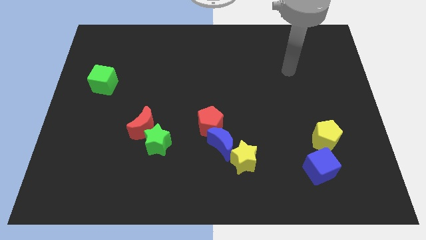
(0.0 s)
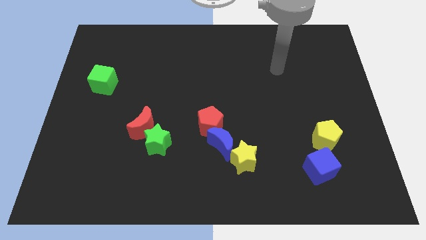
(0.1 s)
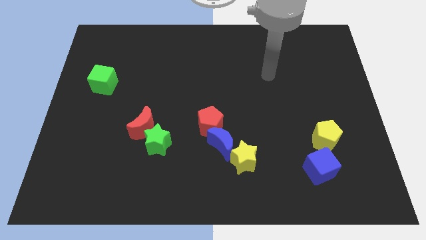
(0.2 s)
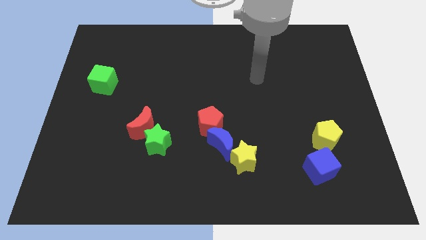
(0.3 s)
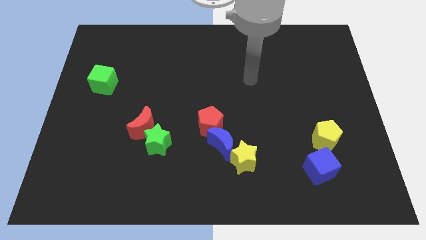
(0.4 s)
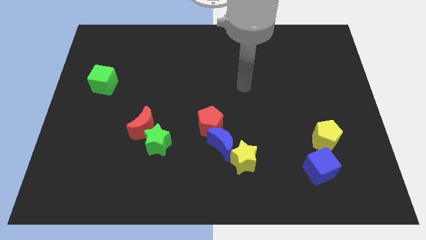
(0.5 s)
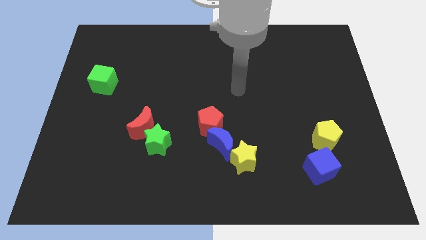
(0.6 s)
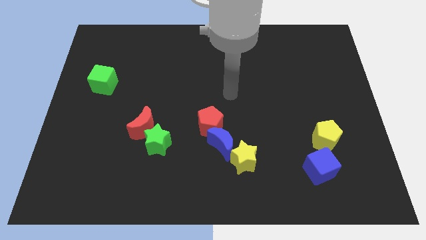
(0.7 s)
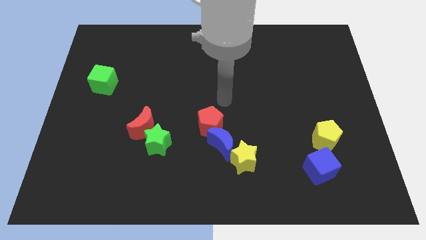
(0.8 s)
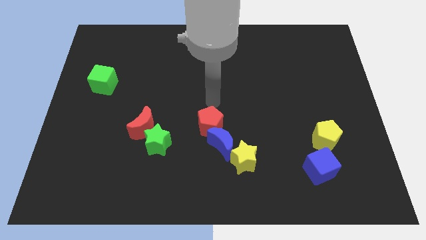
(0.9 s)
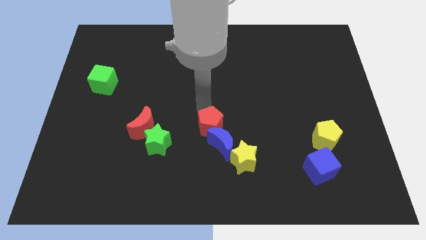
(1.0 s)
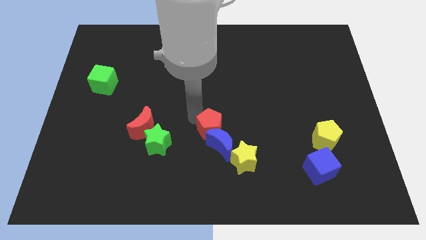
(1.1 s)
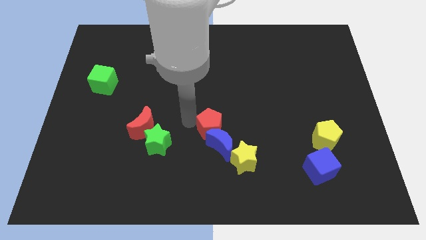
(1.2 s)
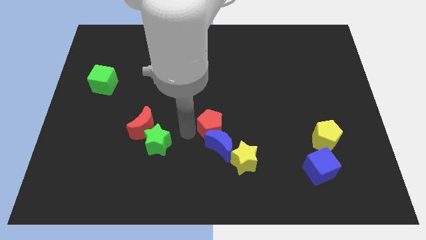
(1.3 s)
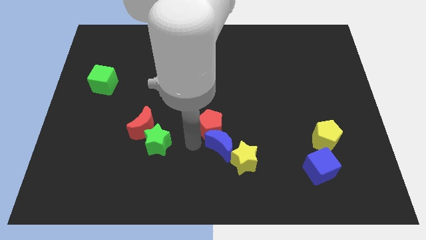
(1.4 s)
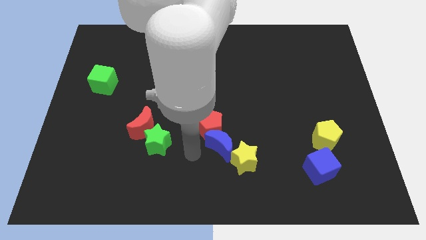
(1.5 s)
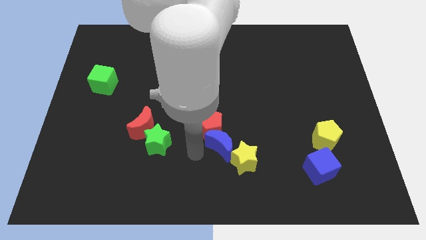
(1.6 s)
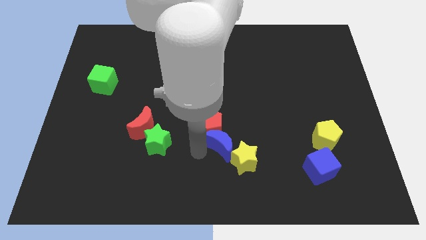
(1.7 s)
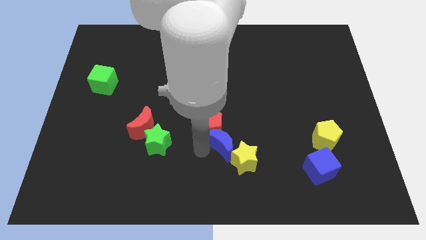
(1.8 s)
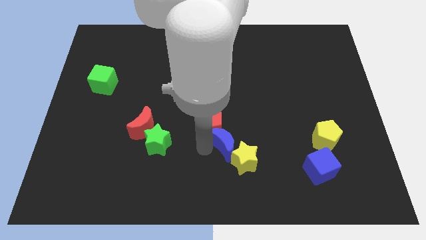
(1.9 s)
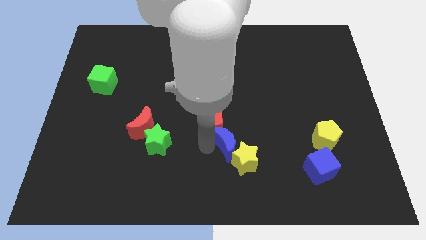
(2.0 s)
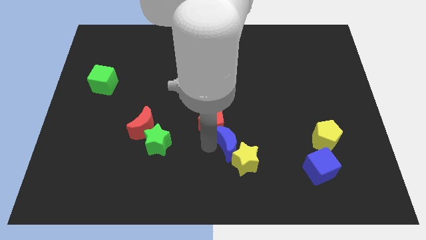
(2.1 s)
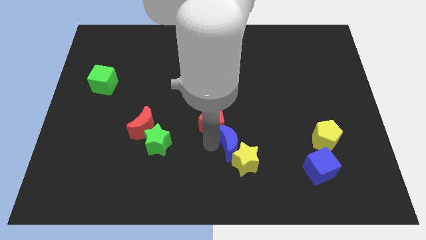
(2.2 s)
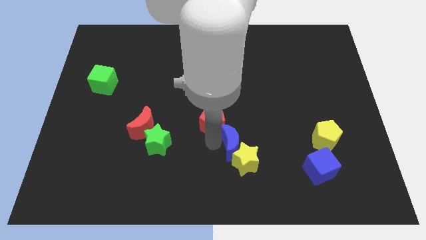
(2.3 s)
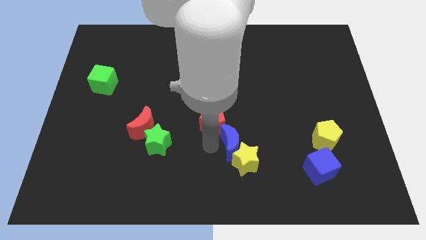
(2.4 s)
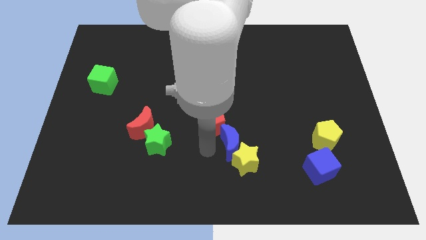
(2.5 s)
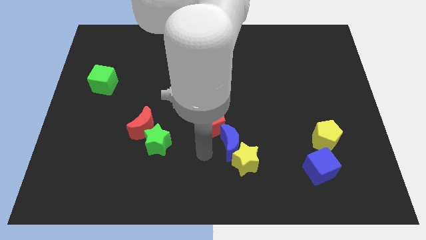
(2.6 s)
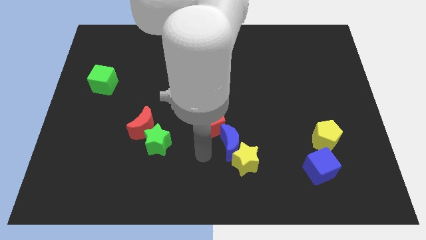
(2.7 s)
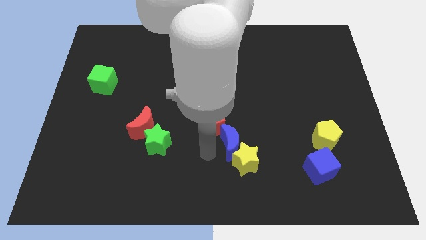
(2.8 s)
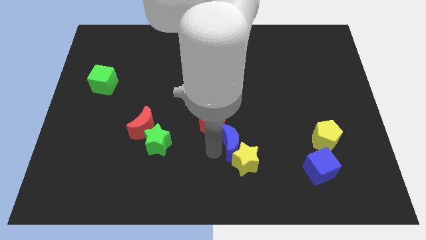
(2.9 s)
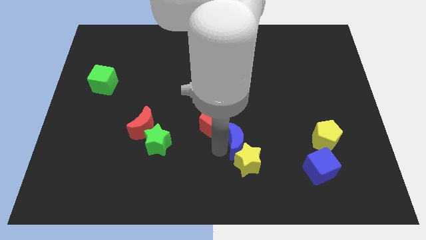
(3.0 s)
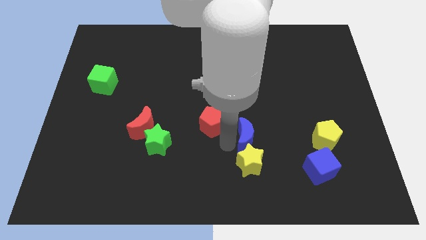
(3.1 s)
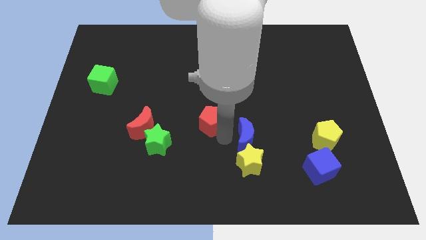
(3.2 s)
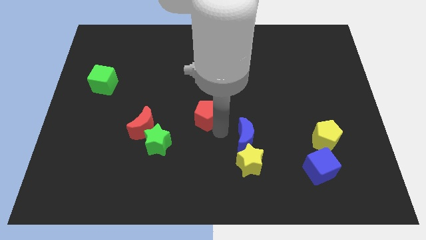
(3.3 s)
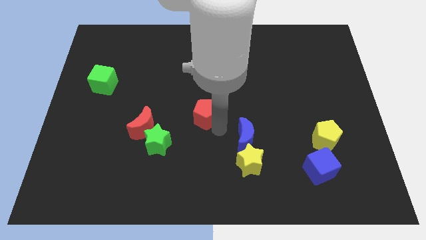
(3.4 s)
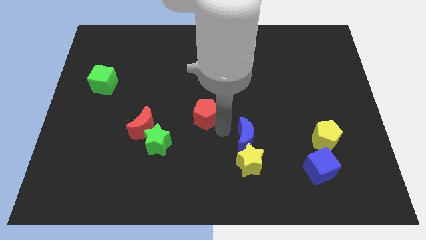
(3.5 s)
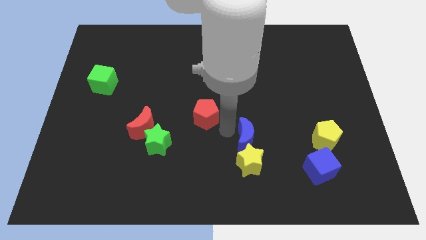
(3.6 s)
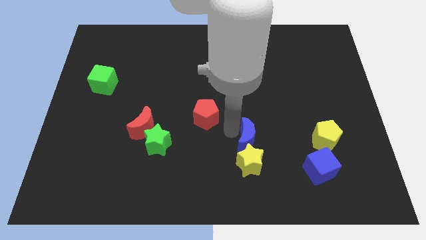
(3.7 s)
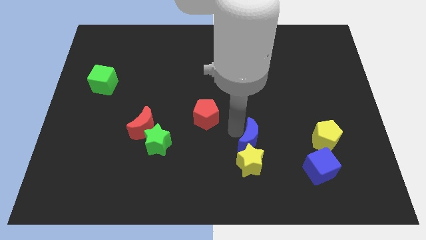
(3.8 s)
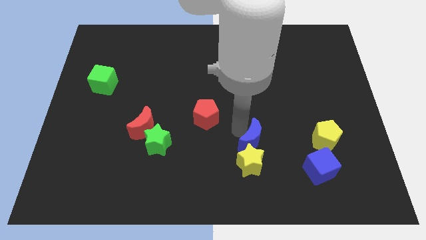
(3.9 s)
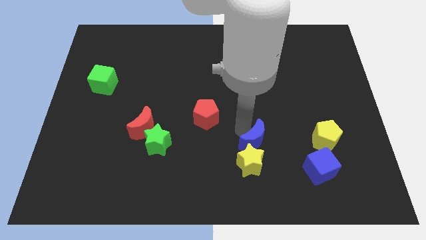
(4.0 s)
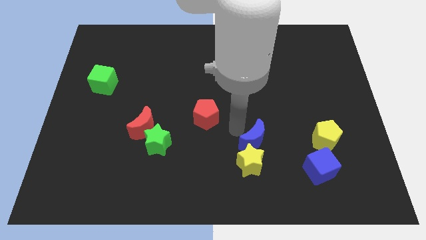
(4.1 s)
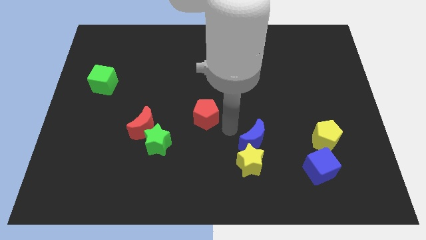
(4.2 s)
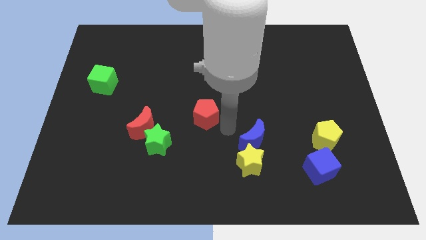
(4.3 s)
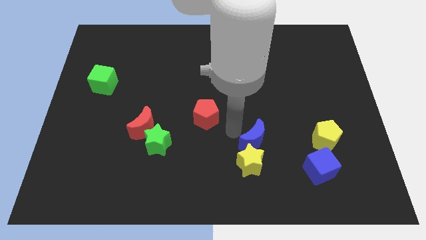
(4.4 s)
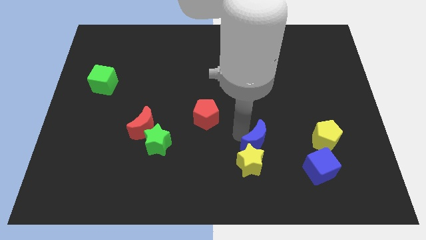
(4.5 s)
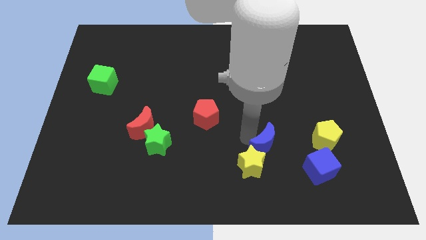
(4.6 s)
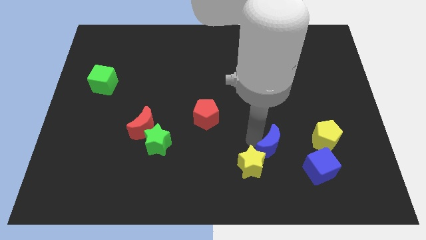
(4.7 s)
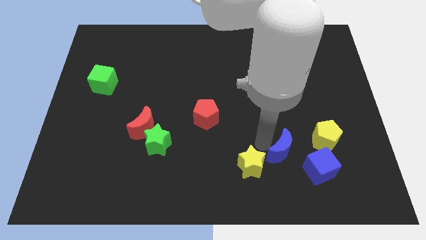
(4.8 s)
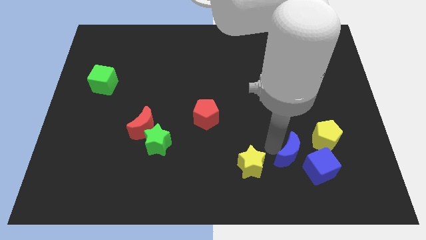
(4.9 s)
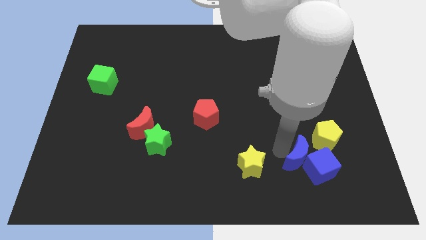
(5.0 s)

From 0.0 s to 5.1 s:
push the blue moon to the blue cube

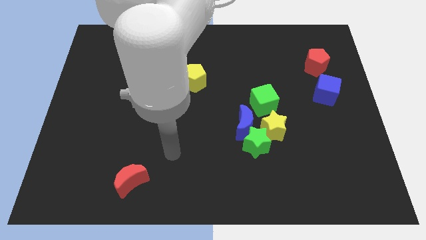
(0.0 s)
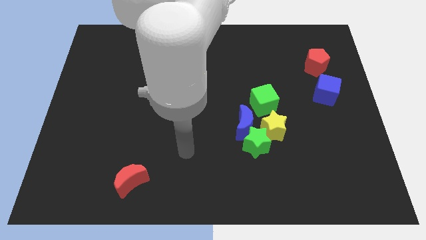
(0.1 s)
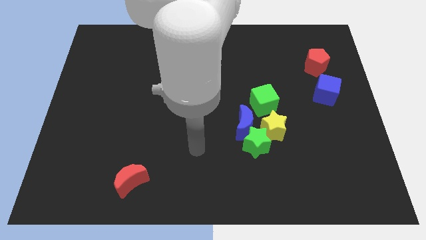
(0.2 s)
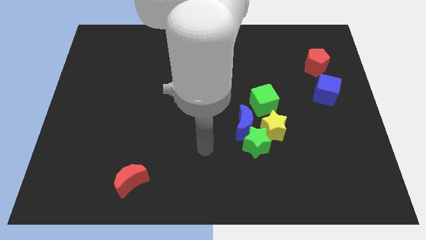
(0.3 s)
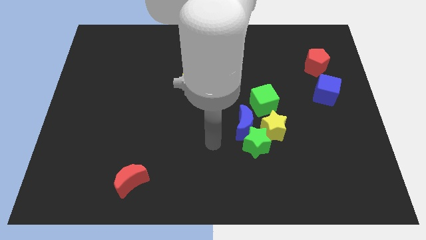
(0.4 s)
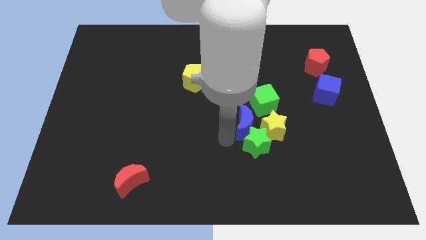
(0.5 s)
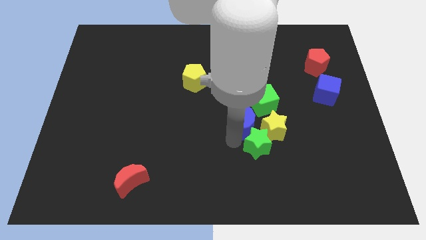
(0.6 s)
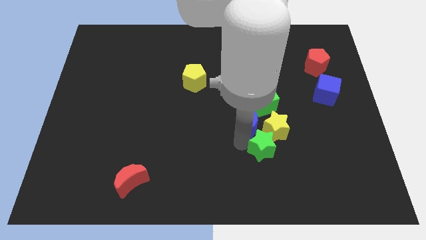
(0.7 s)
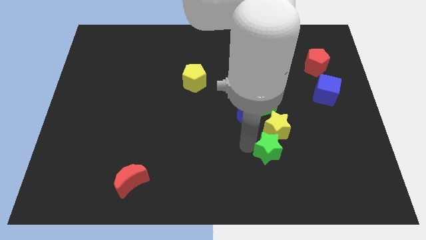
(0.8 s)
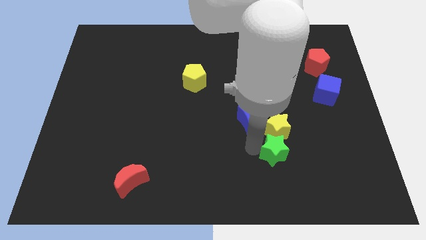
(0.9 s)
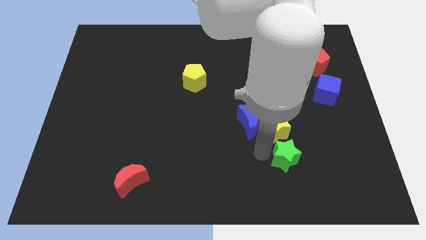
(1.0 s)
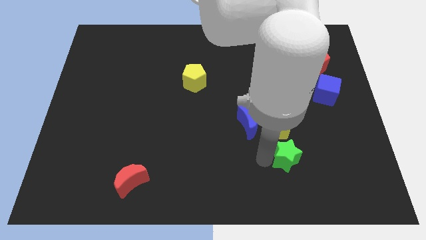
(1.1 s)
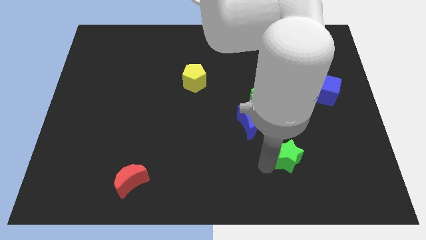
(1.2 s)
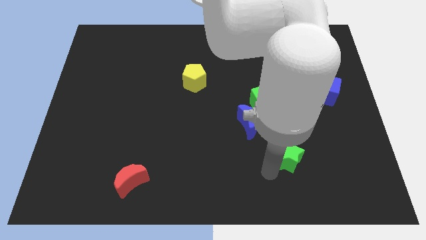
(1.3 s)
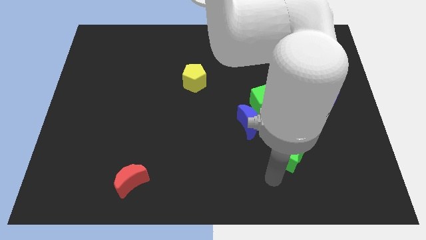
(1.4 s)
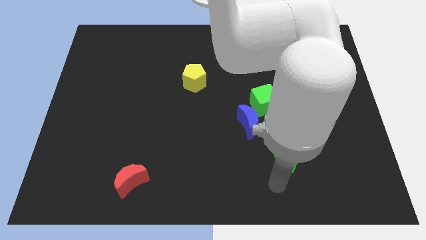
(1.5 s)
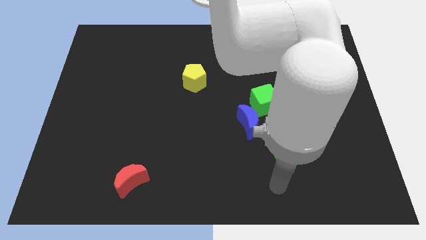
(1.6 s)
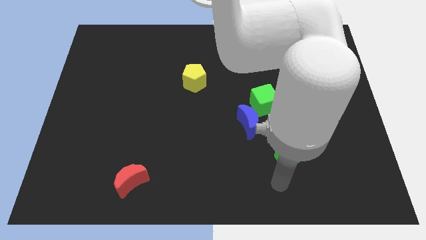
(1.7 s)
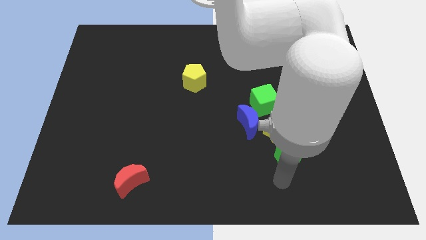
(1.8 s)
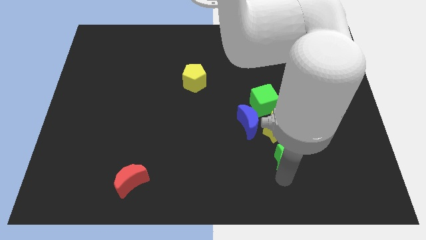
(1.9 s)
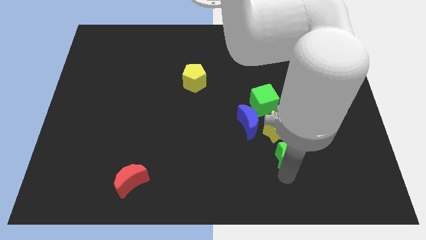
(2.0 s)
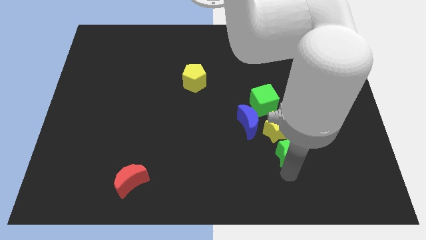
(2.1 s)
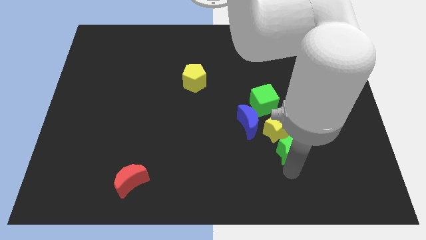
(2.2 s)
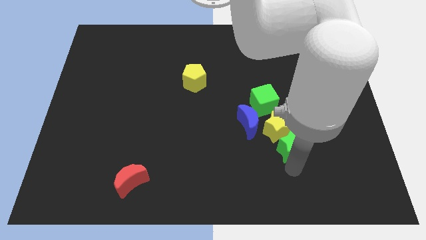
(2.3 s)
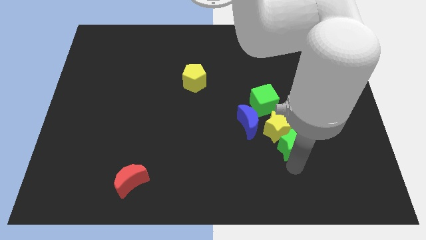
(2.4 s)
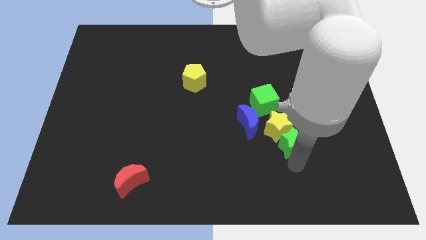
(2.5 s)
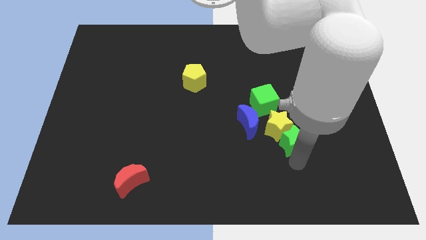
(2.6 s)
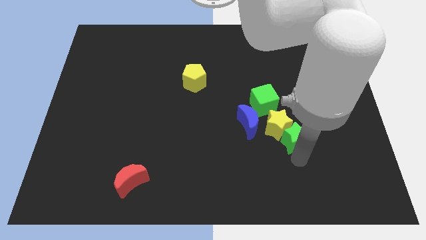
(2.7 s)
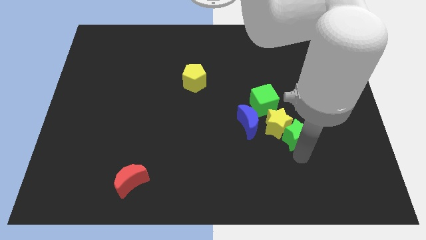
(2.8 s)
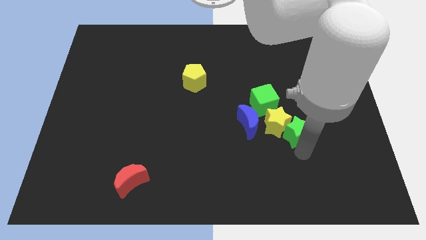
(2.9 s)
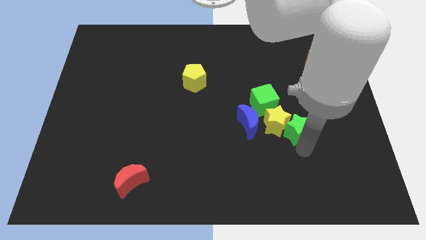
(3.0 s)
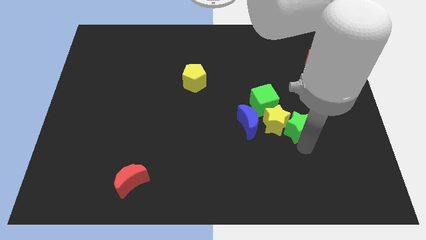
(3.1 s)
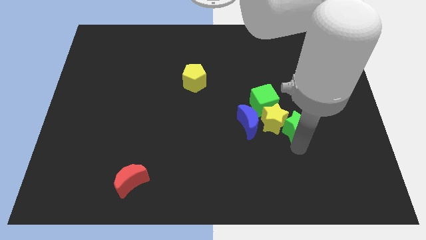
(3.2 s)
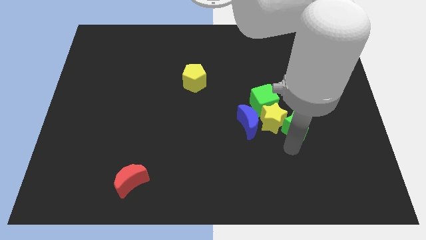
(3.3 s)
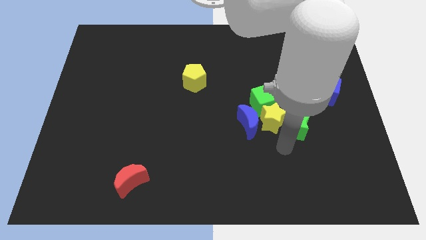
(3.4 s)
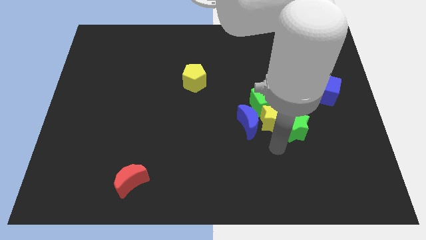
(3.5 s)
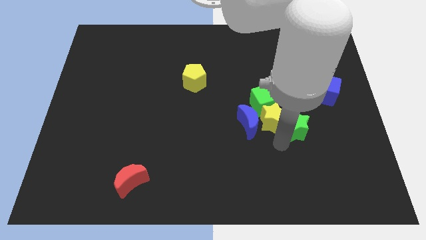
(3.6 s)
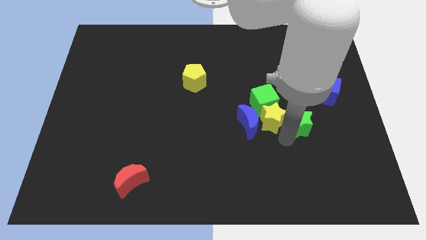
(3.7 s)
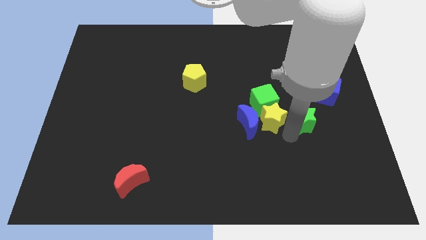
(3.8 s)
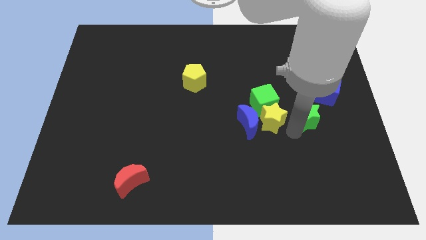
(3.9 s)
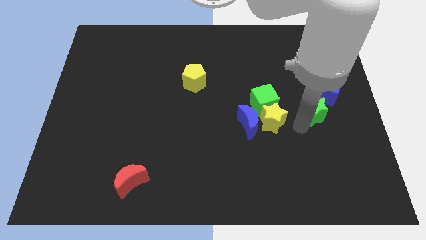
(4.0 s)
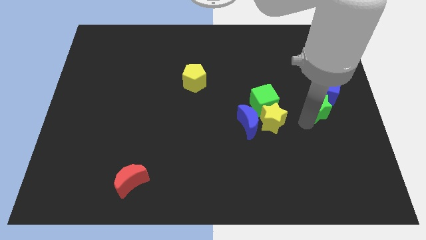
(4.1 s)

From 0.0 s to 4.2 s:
slide the green star towards the blue cube
